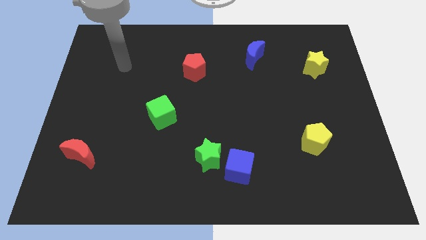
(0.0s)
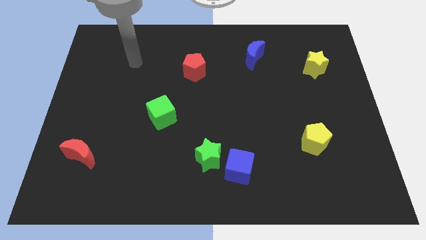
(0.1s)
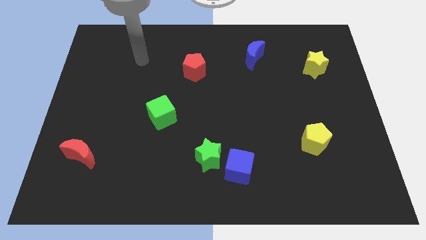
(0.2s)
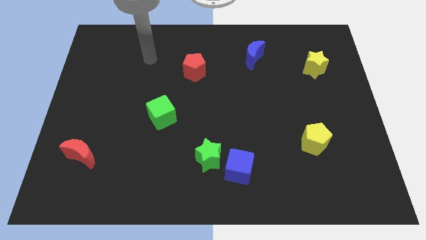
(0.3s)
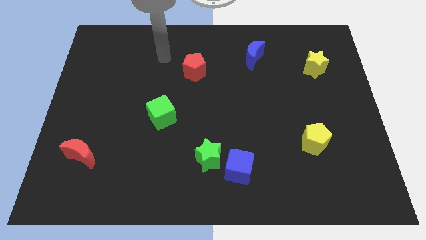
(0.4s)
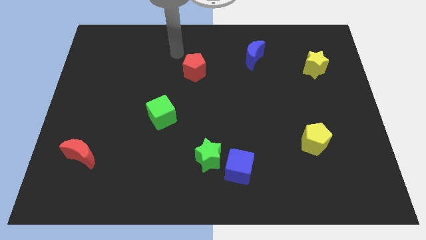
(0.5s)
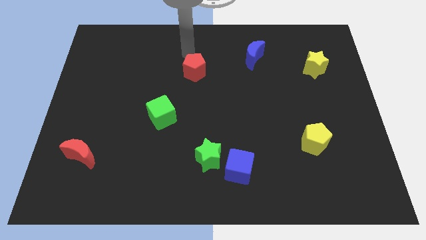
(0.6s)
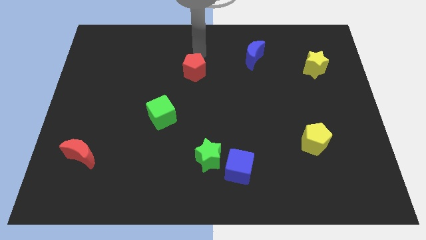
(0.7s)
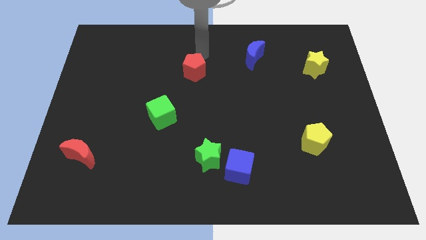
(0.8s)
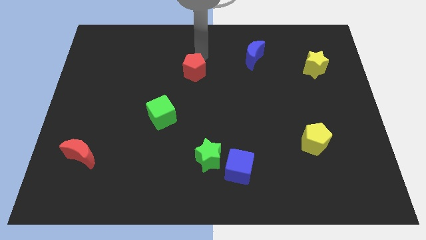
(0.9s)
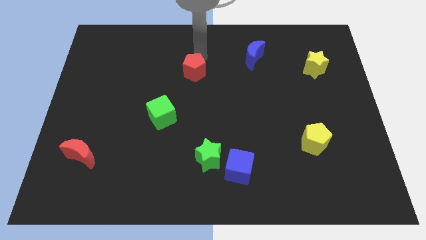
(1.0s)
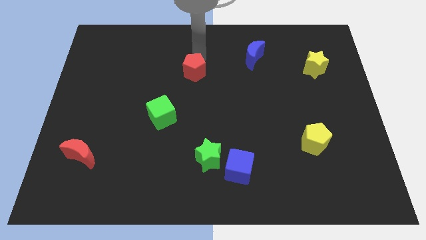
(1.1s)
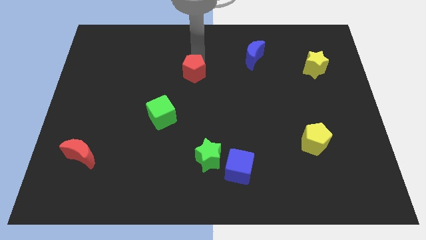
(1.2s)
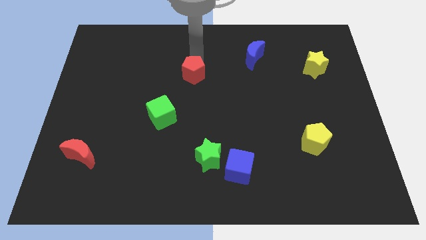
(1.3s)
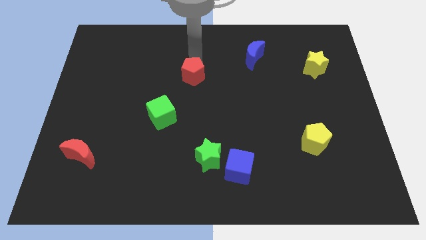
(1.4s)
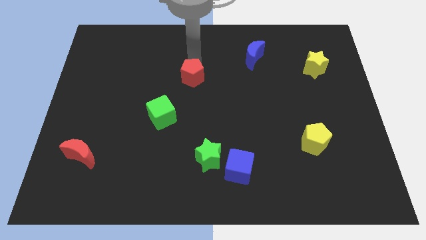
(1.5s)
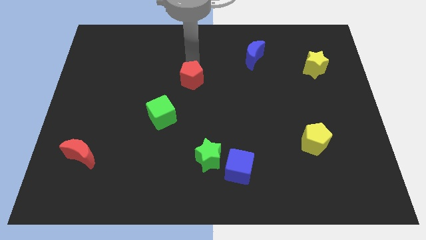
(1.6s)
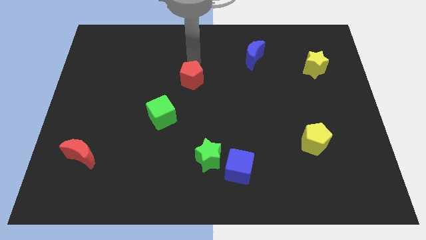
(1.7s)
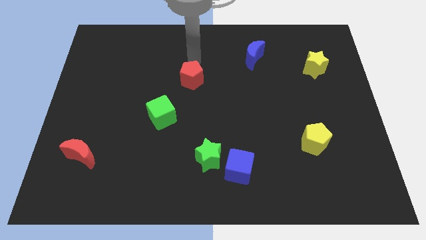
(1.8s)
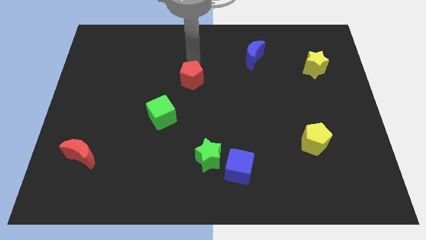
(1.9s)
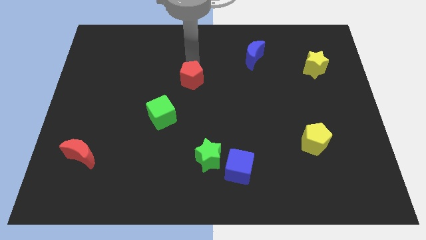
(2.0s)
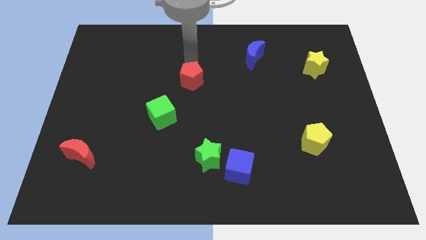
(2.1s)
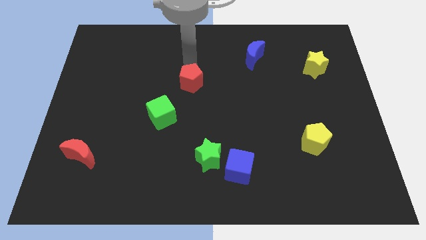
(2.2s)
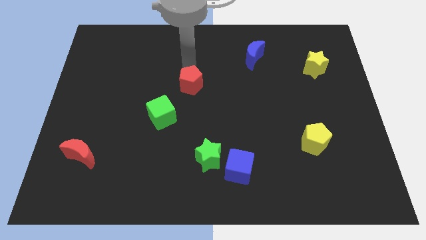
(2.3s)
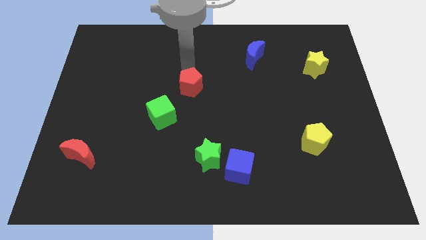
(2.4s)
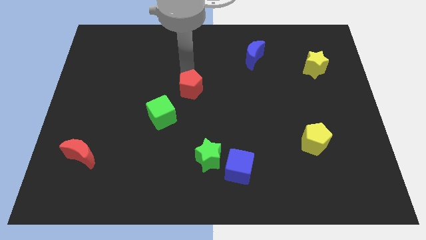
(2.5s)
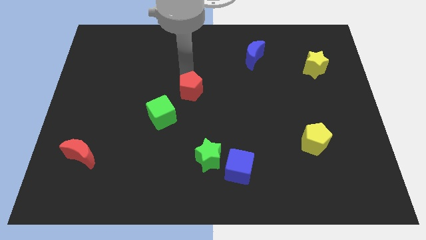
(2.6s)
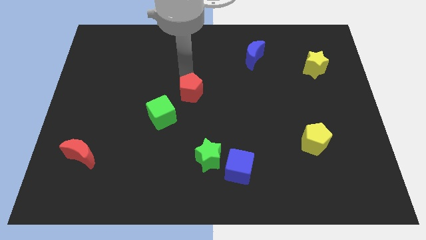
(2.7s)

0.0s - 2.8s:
move the red pentagon downwards a bit

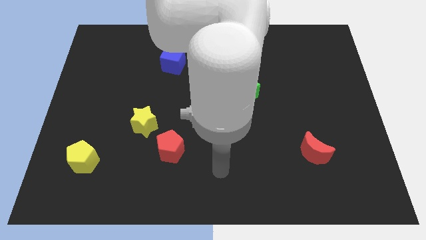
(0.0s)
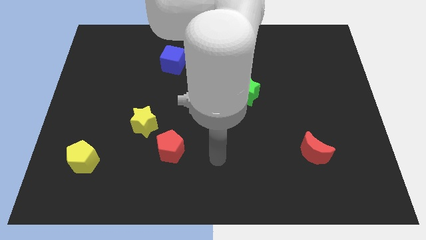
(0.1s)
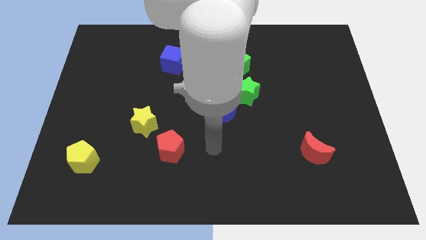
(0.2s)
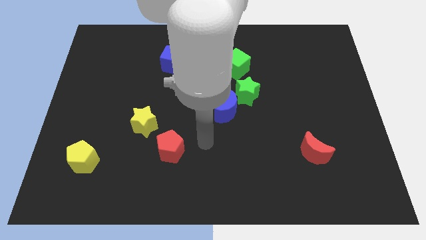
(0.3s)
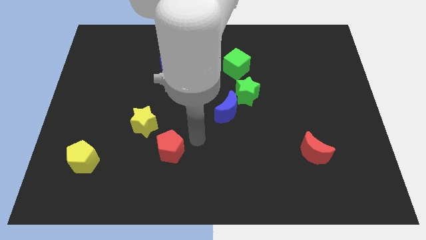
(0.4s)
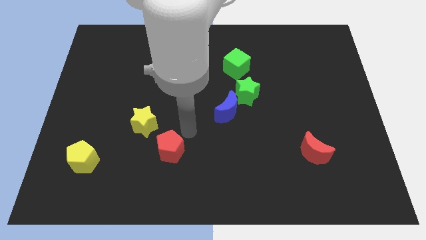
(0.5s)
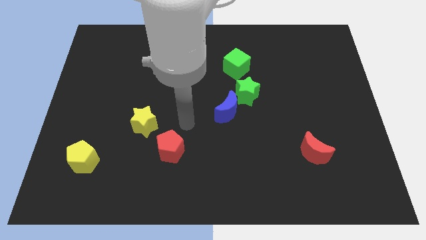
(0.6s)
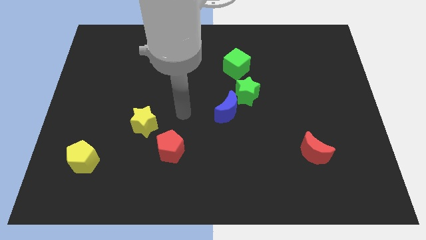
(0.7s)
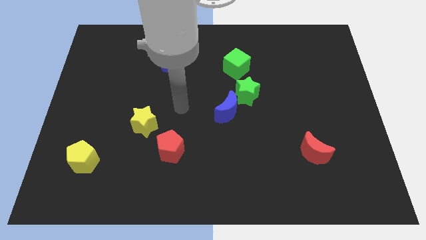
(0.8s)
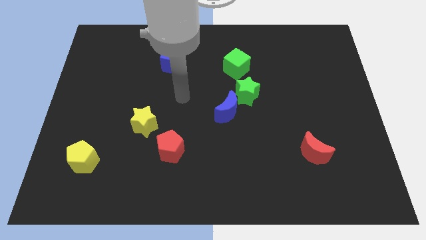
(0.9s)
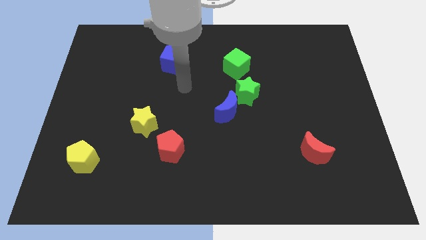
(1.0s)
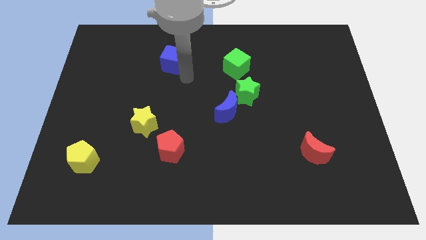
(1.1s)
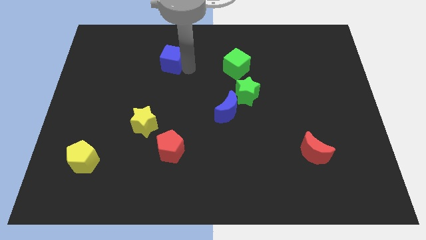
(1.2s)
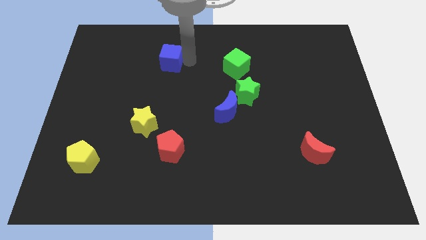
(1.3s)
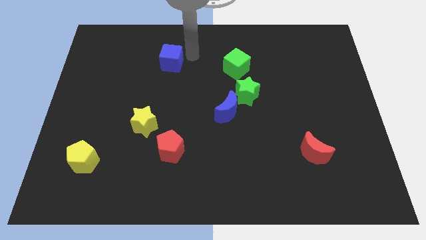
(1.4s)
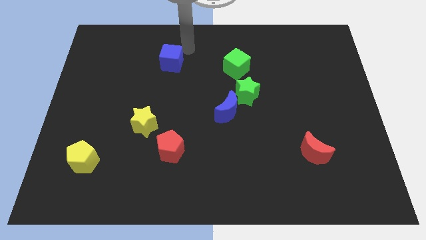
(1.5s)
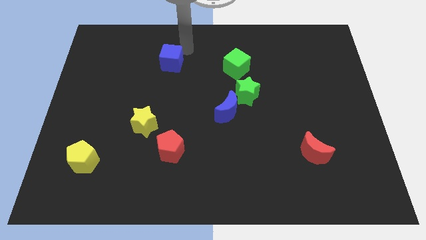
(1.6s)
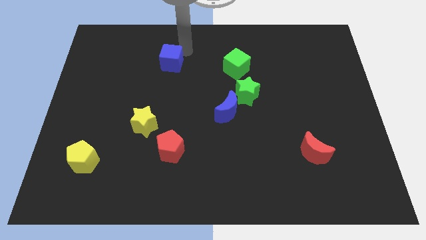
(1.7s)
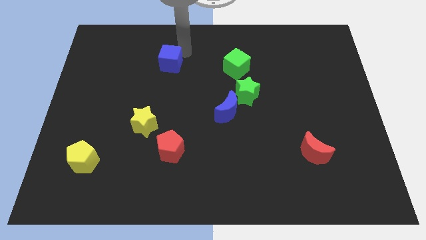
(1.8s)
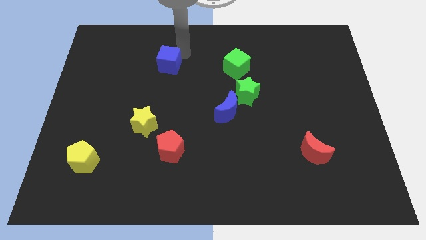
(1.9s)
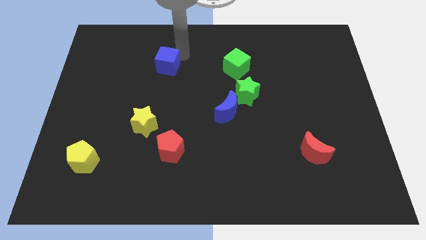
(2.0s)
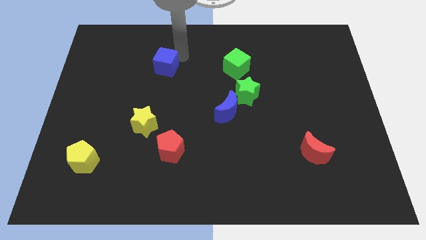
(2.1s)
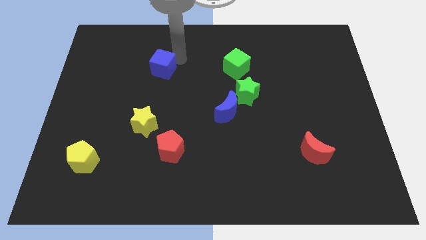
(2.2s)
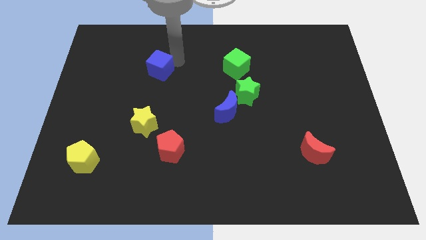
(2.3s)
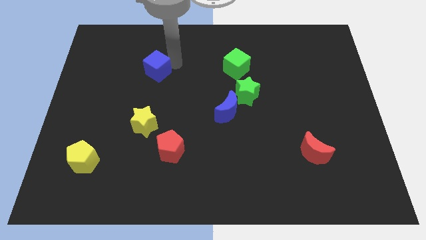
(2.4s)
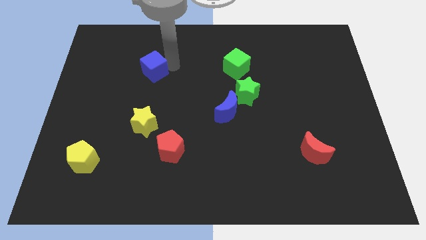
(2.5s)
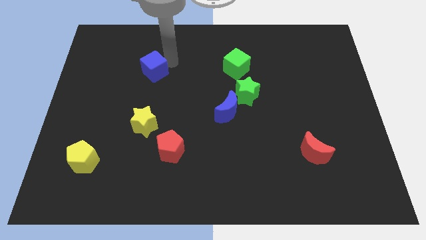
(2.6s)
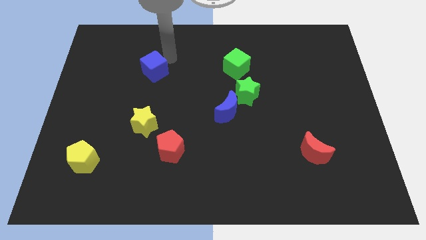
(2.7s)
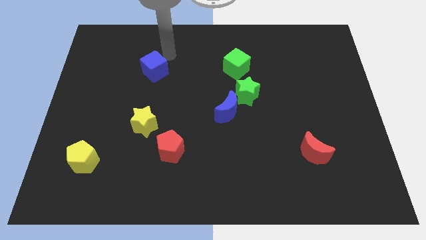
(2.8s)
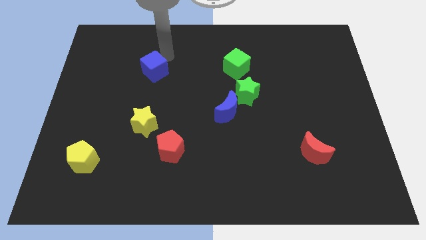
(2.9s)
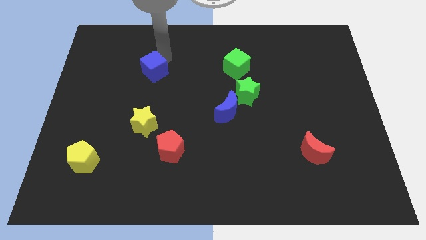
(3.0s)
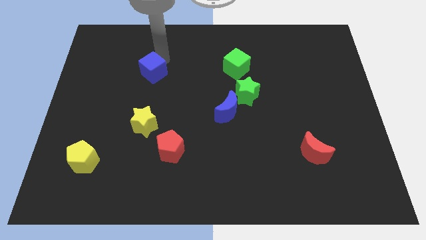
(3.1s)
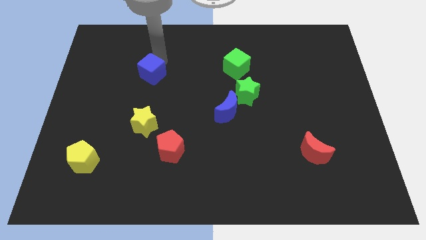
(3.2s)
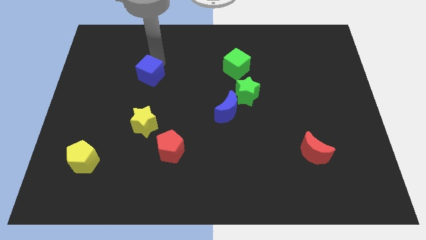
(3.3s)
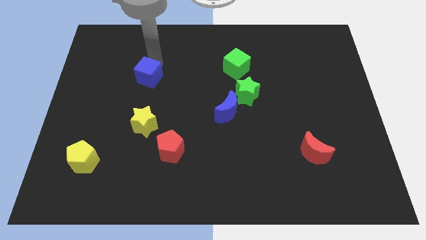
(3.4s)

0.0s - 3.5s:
slightly move the blue cube downwards and to the left diagonally

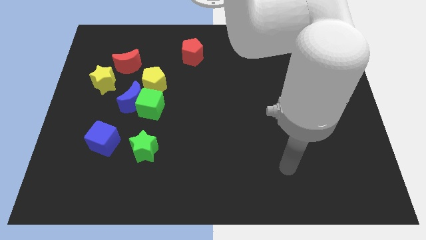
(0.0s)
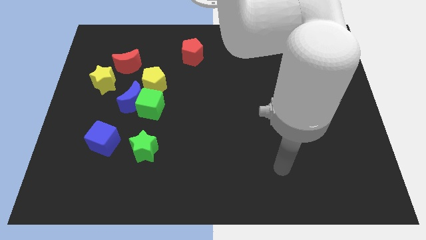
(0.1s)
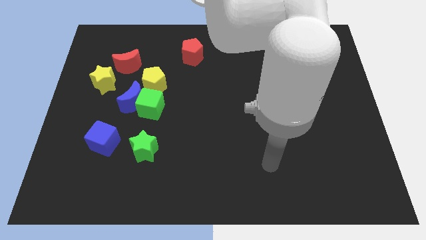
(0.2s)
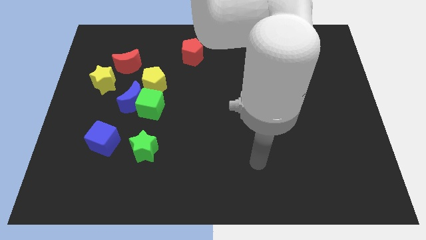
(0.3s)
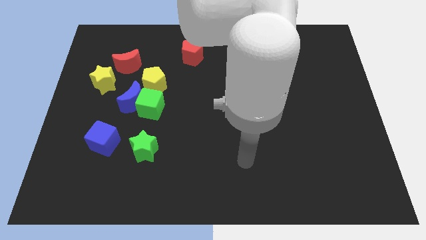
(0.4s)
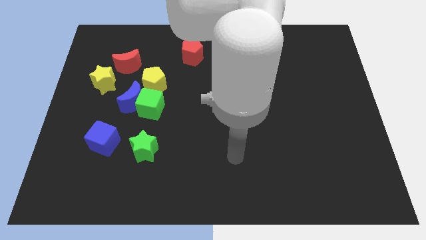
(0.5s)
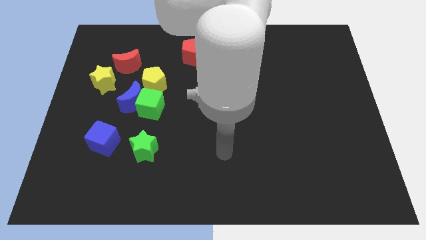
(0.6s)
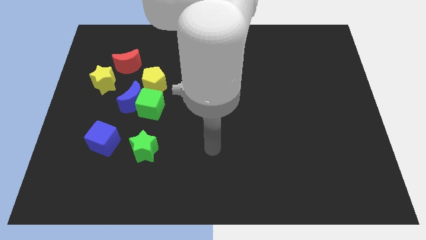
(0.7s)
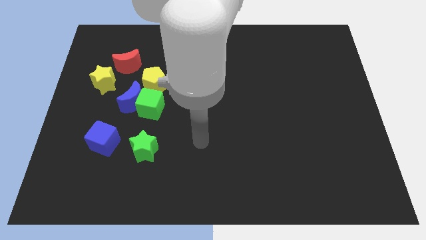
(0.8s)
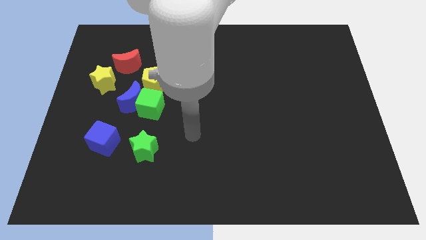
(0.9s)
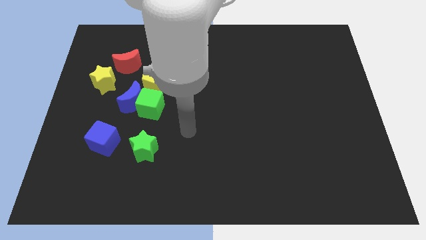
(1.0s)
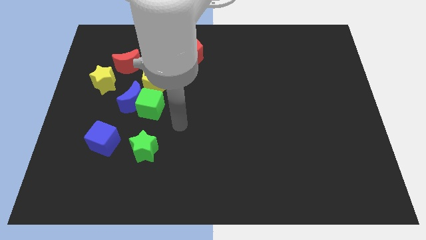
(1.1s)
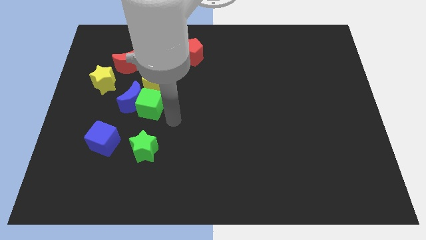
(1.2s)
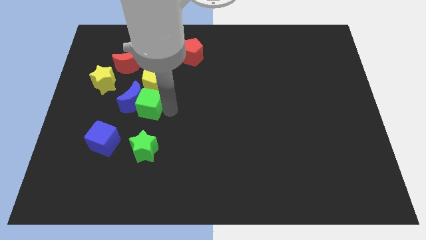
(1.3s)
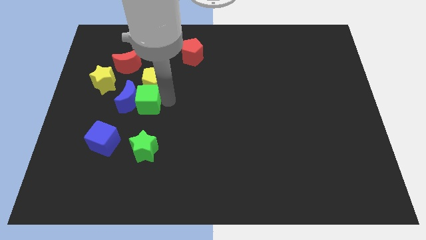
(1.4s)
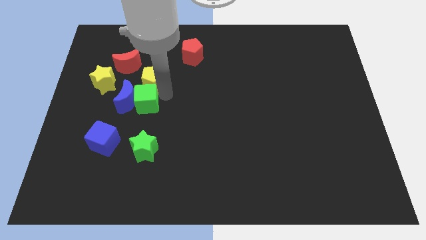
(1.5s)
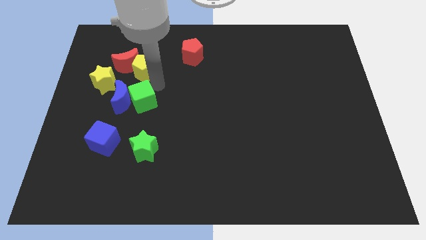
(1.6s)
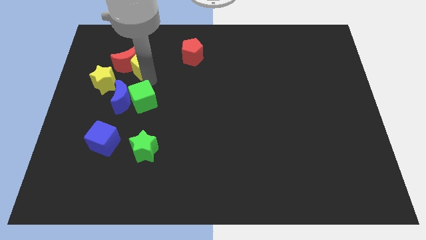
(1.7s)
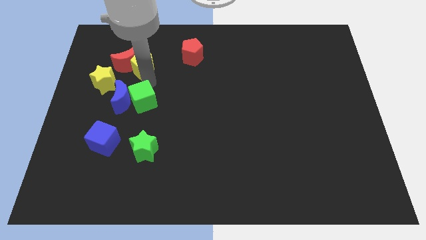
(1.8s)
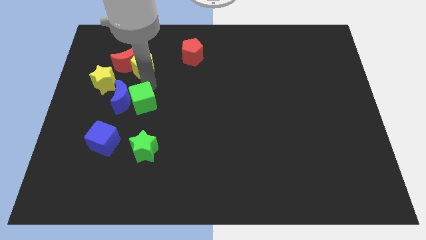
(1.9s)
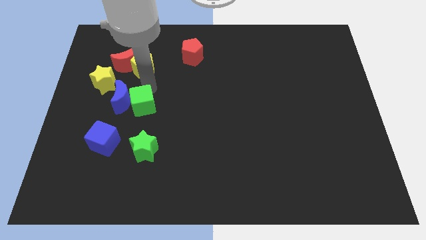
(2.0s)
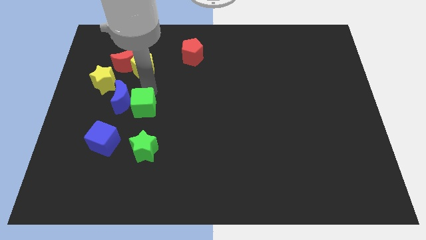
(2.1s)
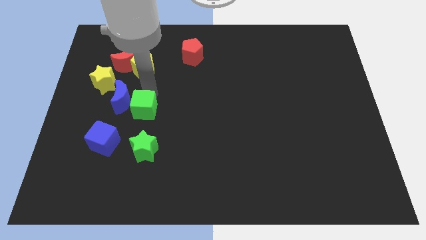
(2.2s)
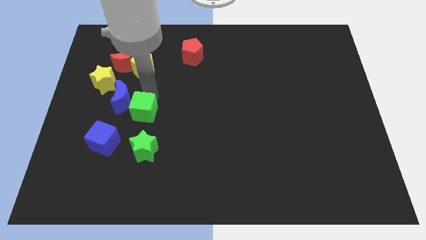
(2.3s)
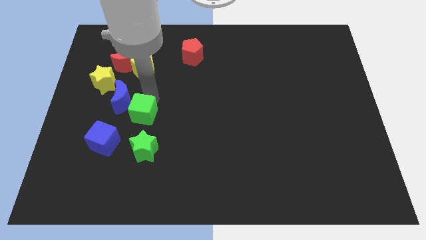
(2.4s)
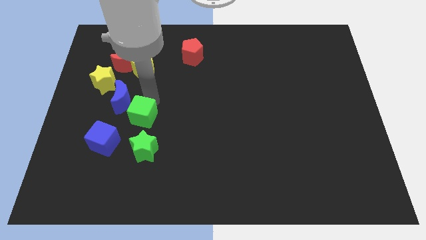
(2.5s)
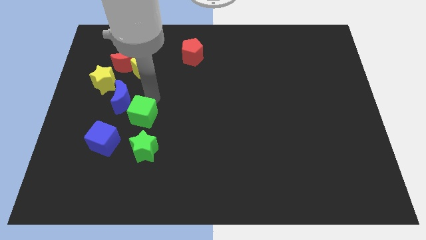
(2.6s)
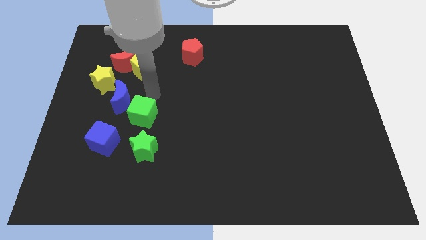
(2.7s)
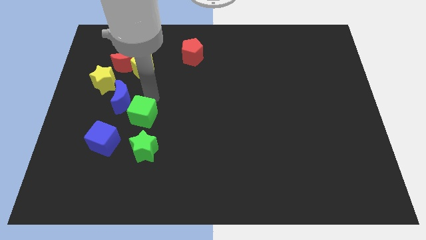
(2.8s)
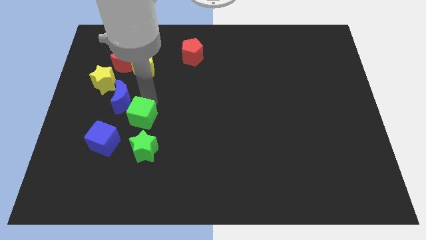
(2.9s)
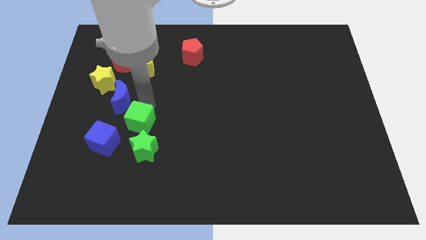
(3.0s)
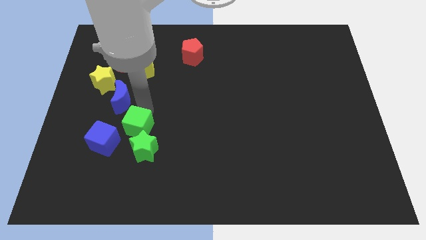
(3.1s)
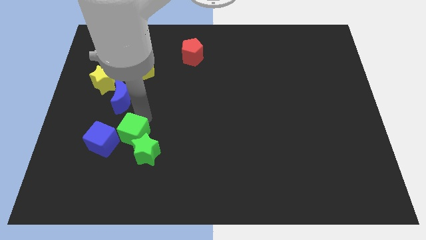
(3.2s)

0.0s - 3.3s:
slightly push the green cube downwards and to the left
